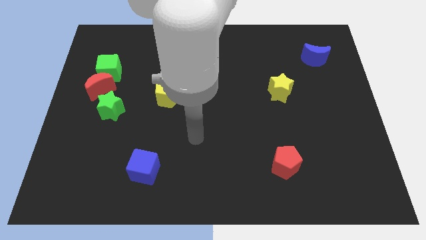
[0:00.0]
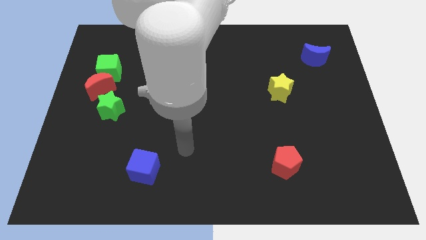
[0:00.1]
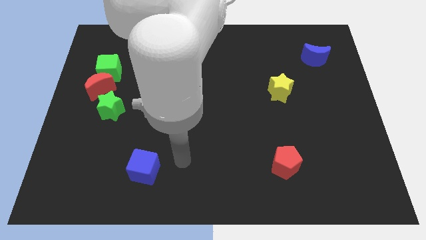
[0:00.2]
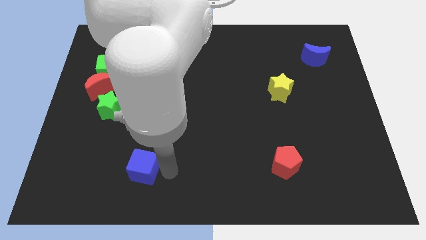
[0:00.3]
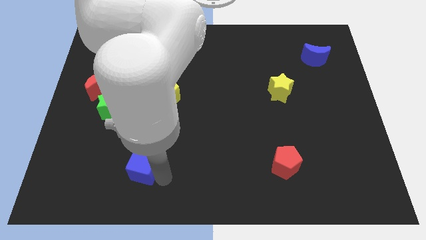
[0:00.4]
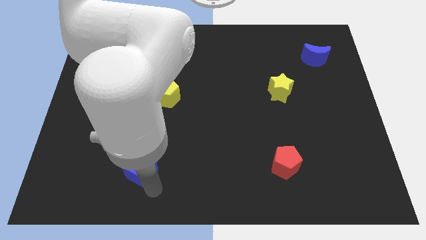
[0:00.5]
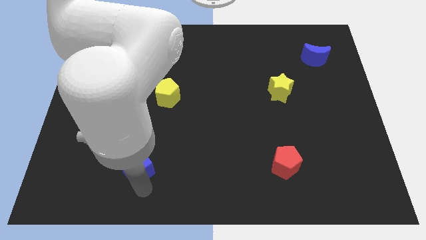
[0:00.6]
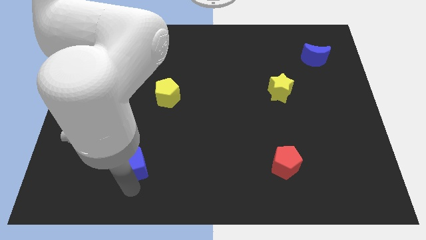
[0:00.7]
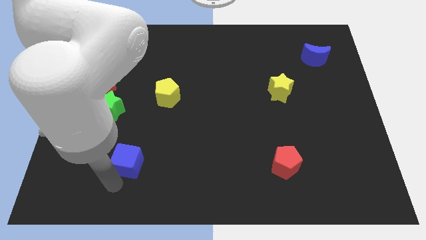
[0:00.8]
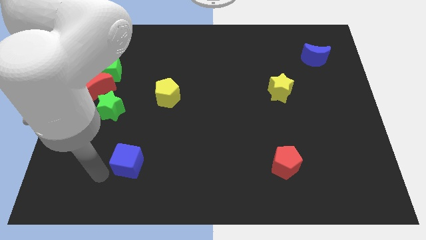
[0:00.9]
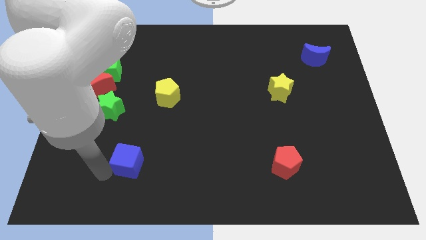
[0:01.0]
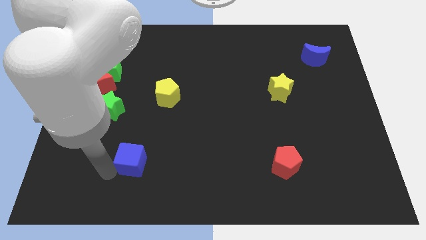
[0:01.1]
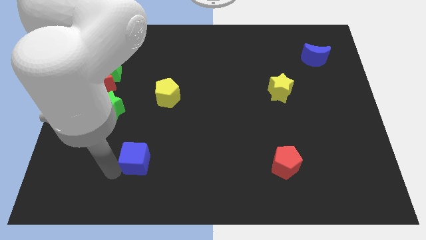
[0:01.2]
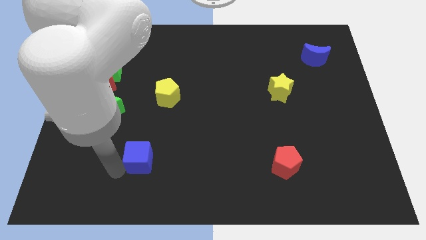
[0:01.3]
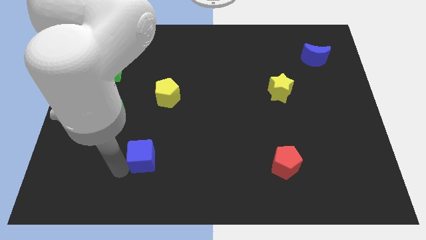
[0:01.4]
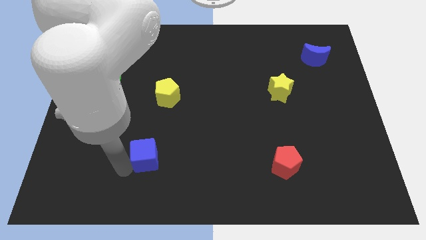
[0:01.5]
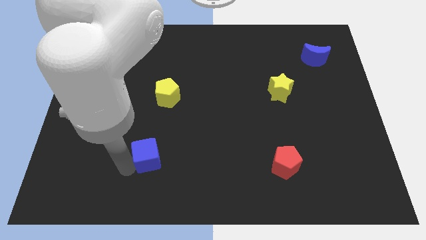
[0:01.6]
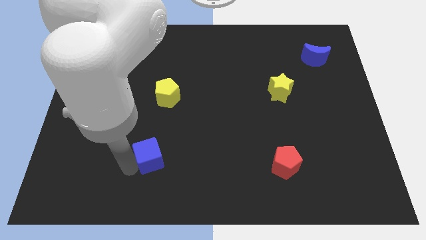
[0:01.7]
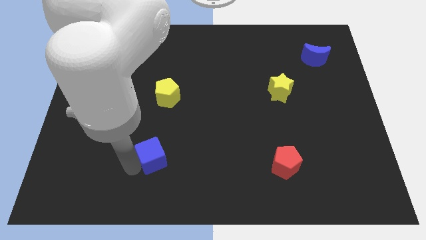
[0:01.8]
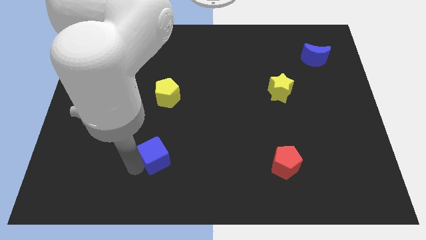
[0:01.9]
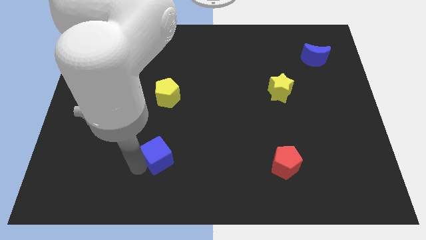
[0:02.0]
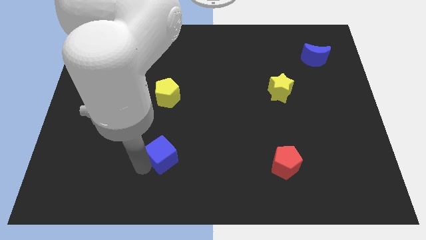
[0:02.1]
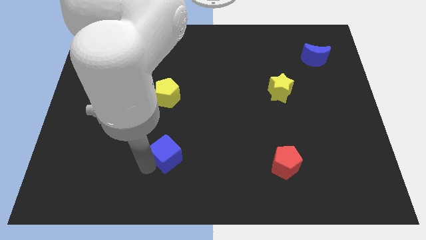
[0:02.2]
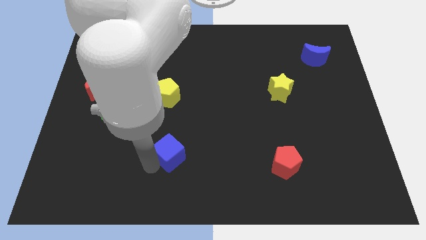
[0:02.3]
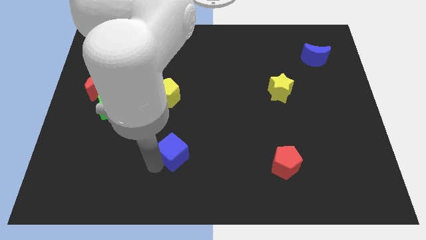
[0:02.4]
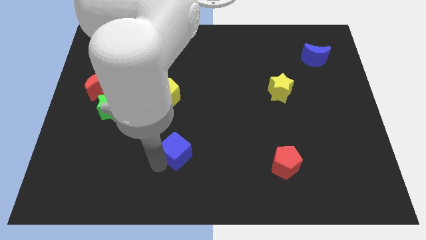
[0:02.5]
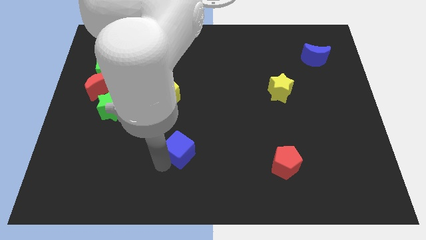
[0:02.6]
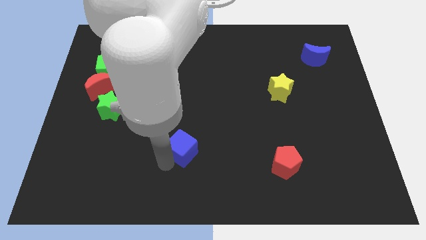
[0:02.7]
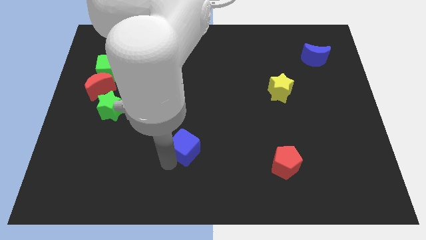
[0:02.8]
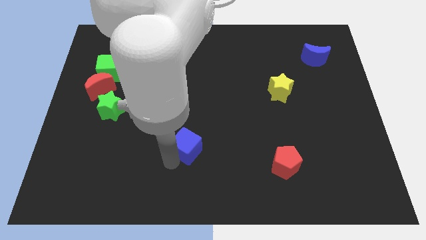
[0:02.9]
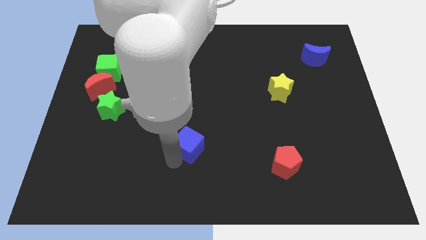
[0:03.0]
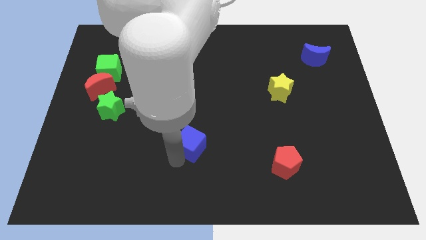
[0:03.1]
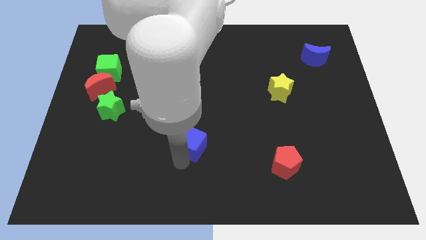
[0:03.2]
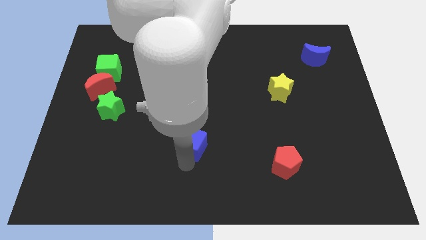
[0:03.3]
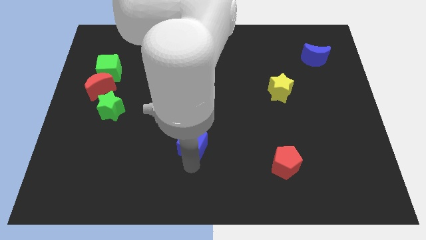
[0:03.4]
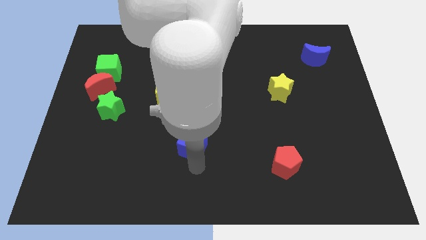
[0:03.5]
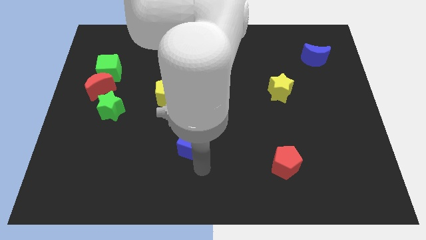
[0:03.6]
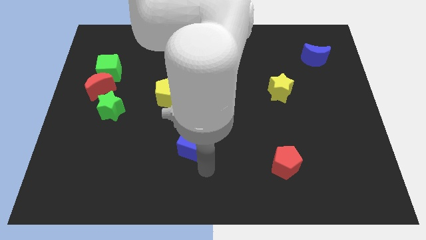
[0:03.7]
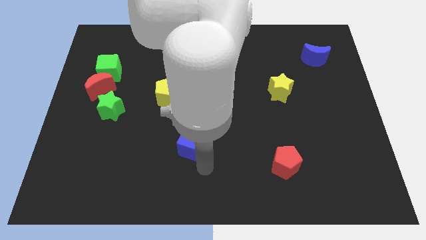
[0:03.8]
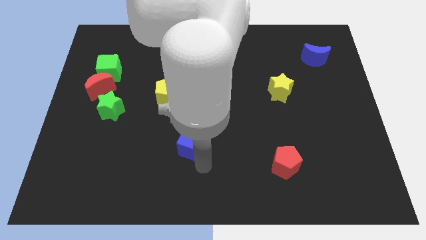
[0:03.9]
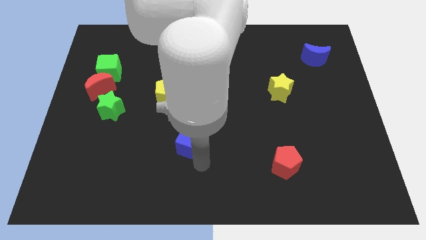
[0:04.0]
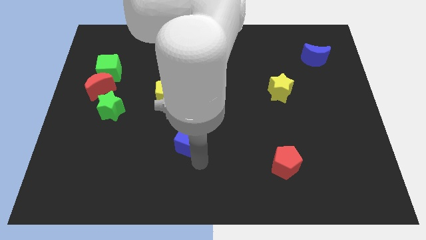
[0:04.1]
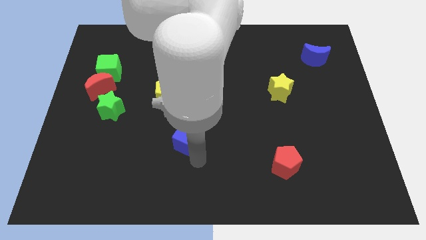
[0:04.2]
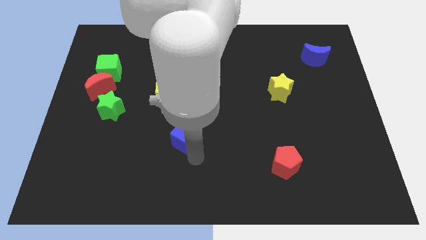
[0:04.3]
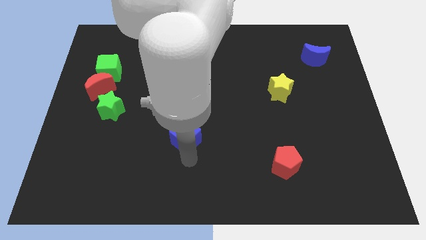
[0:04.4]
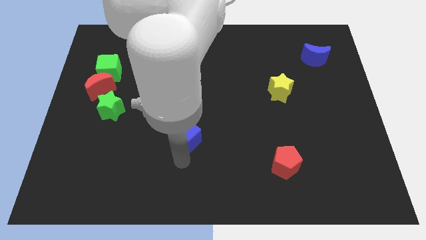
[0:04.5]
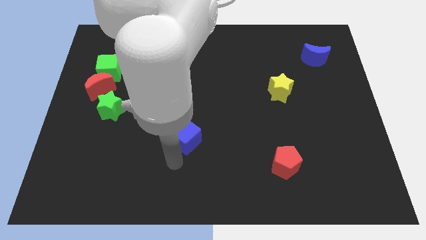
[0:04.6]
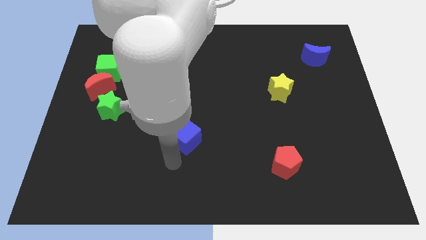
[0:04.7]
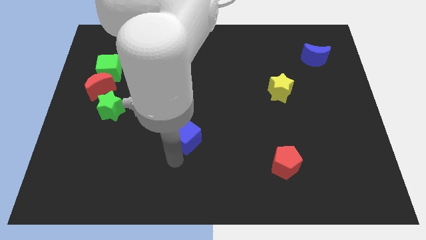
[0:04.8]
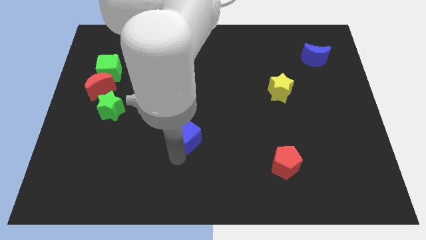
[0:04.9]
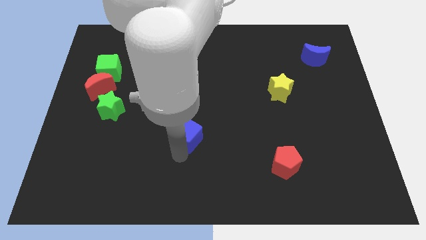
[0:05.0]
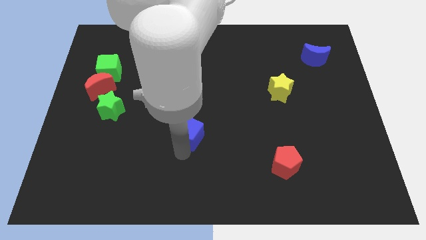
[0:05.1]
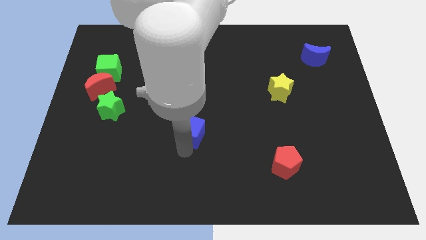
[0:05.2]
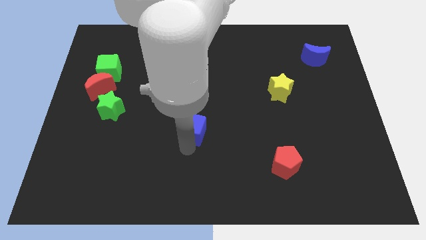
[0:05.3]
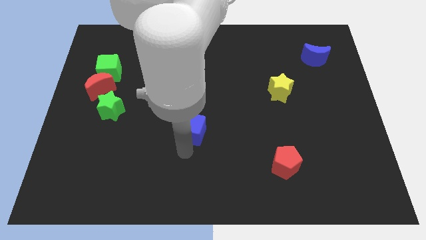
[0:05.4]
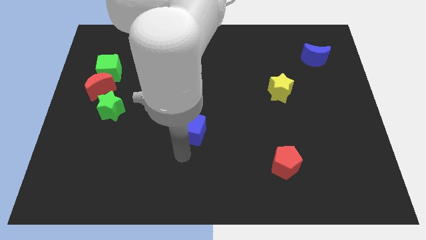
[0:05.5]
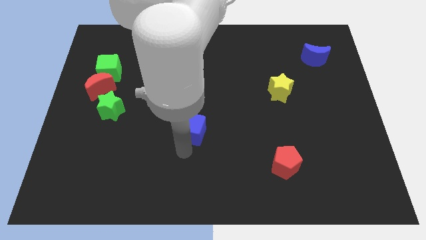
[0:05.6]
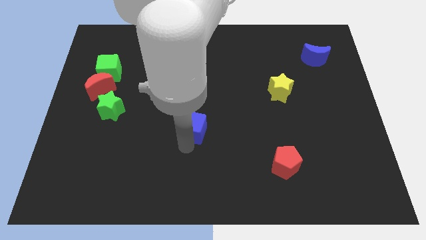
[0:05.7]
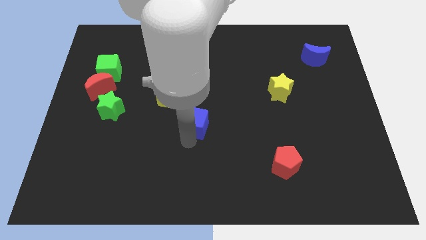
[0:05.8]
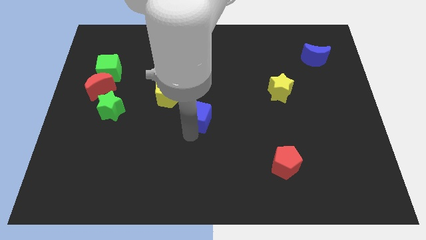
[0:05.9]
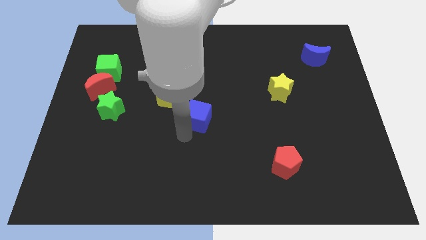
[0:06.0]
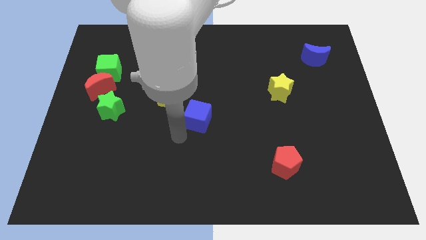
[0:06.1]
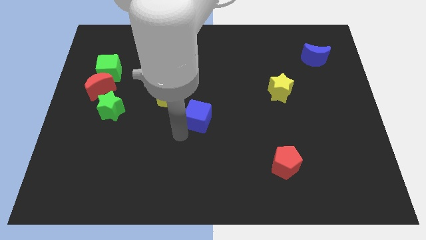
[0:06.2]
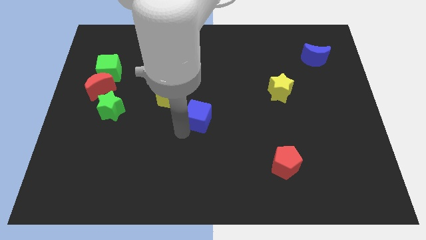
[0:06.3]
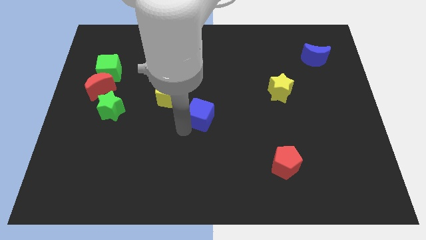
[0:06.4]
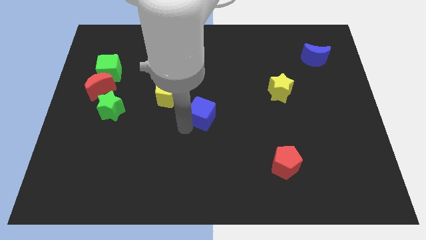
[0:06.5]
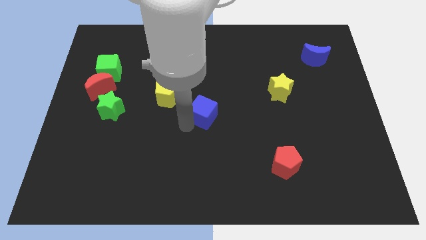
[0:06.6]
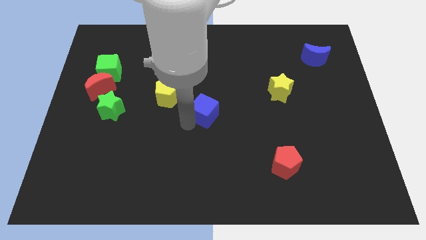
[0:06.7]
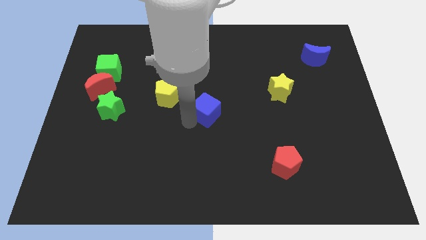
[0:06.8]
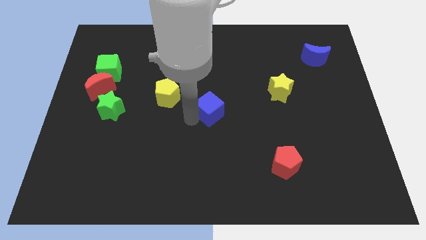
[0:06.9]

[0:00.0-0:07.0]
slide the blue cube upwards and to the right diagonally

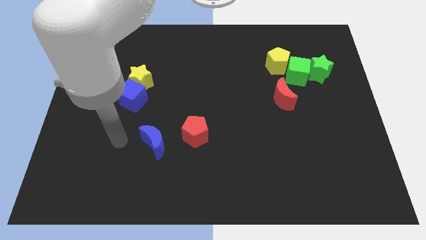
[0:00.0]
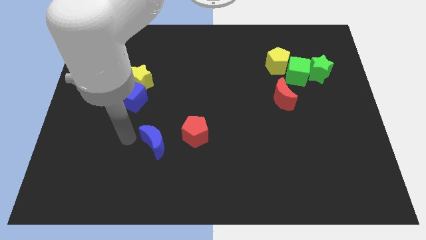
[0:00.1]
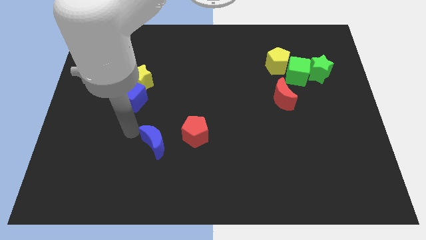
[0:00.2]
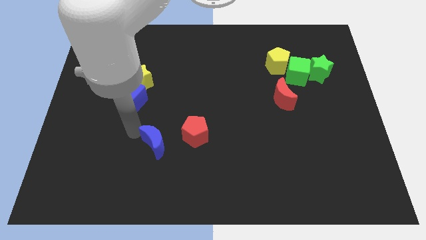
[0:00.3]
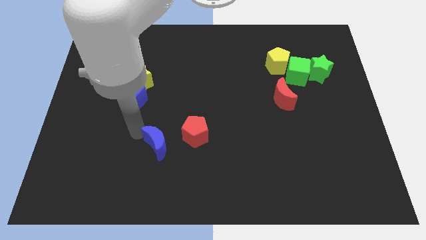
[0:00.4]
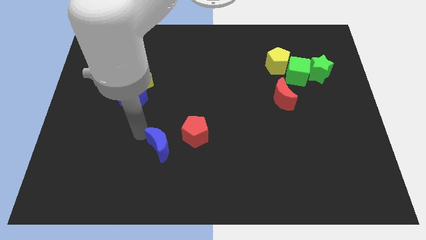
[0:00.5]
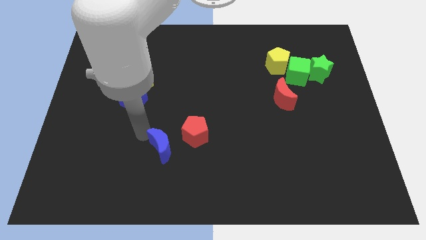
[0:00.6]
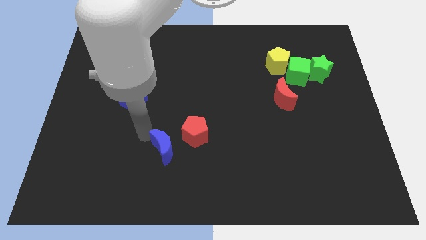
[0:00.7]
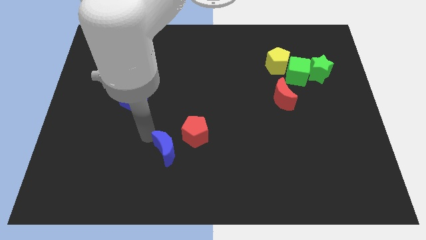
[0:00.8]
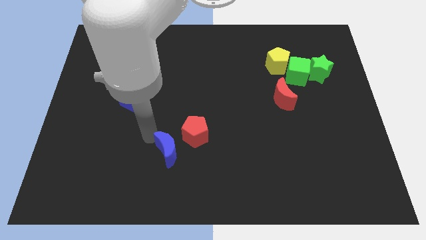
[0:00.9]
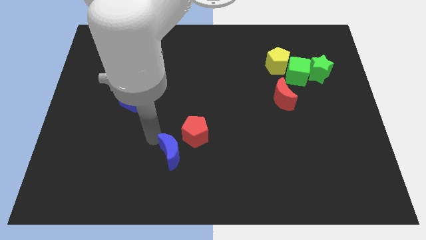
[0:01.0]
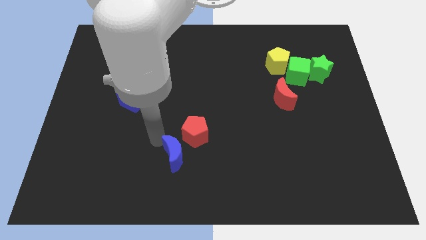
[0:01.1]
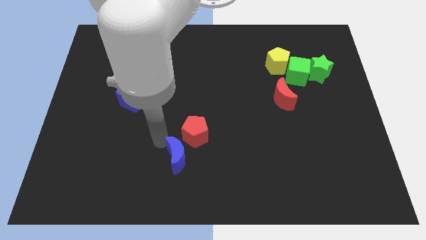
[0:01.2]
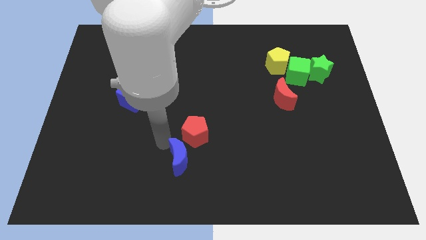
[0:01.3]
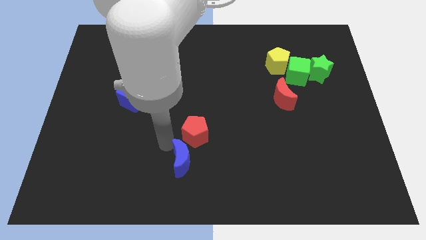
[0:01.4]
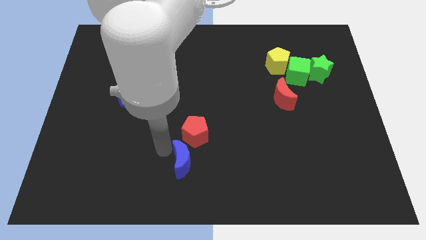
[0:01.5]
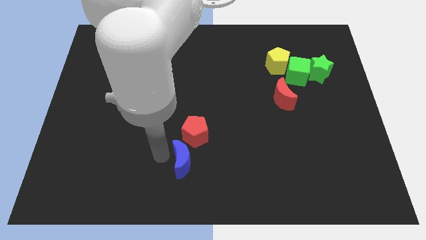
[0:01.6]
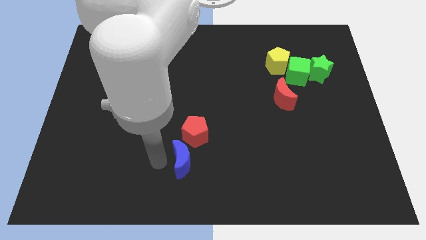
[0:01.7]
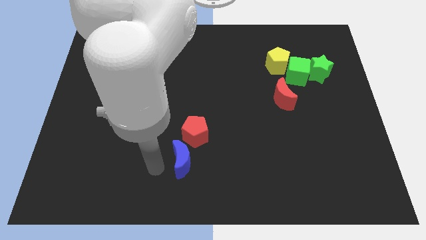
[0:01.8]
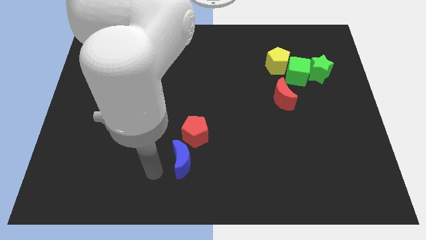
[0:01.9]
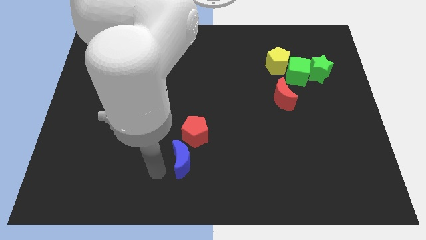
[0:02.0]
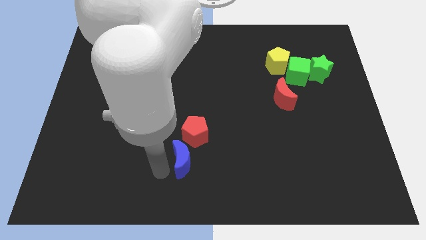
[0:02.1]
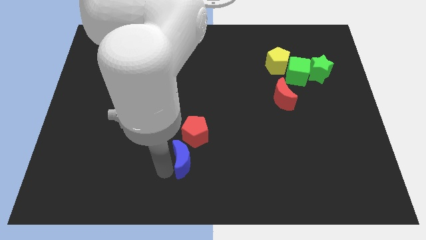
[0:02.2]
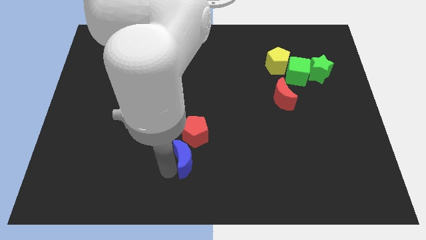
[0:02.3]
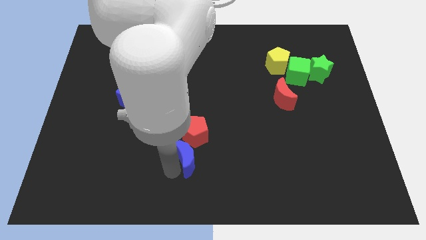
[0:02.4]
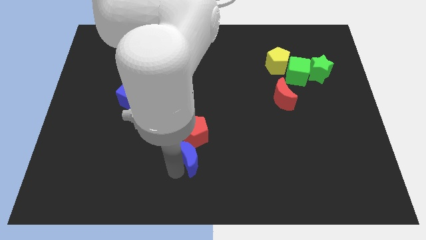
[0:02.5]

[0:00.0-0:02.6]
slightly move the blue moon right
